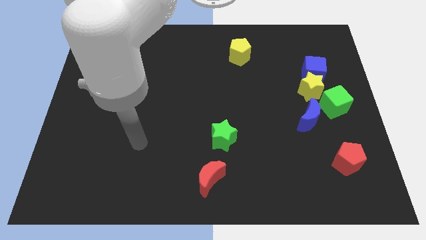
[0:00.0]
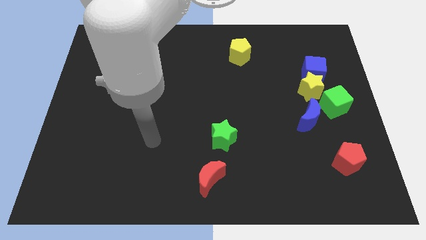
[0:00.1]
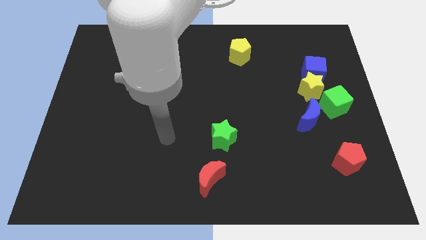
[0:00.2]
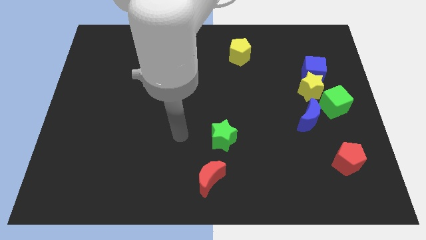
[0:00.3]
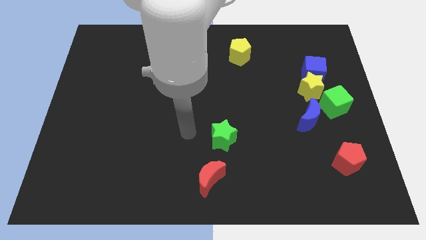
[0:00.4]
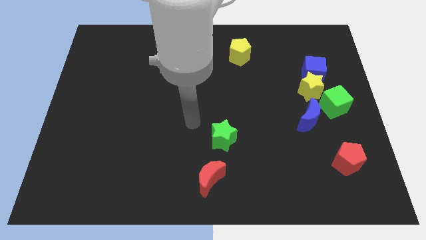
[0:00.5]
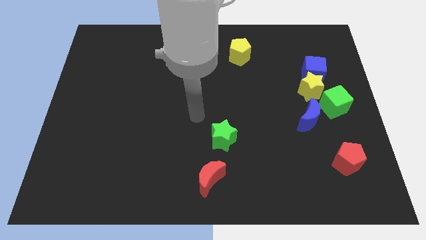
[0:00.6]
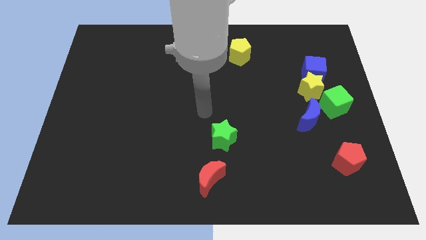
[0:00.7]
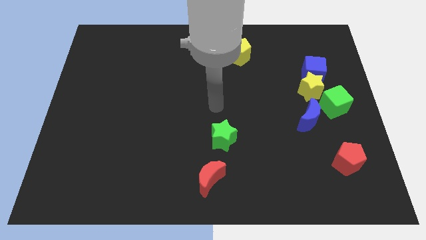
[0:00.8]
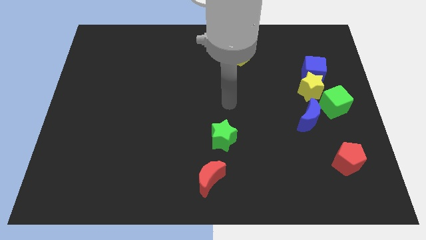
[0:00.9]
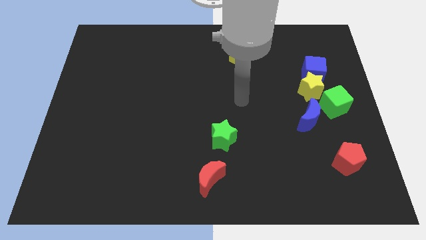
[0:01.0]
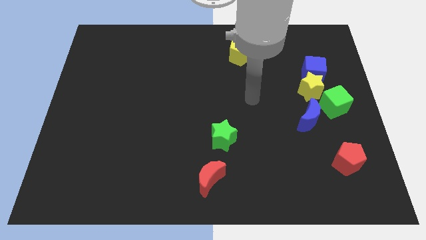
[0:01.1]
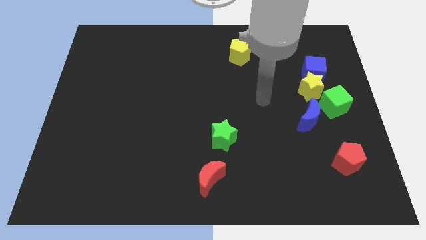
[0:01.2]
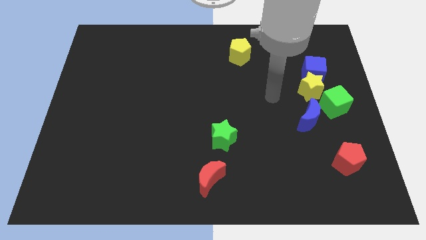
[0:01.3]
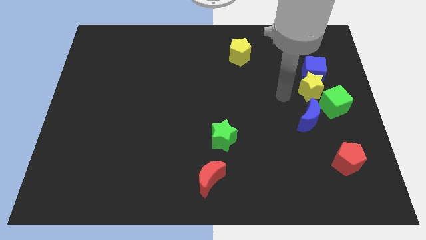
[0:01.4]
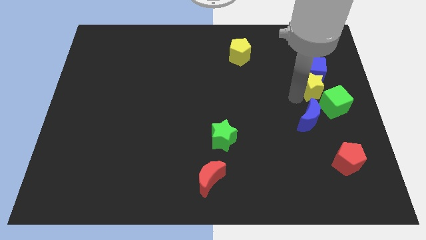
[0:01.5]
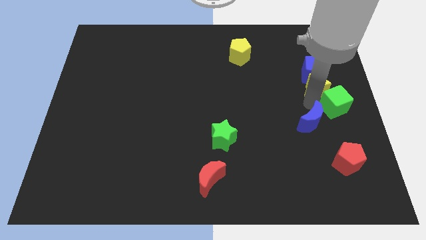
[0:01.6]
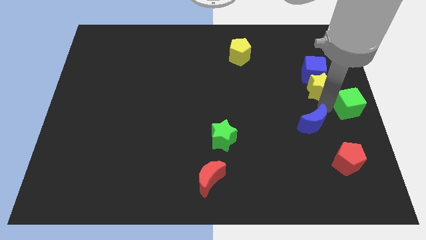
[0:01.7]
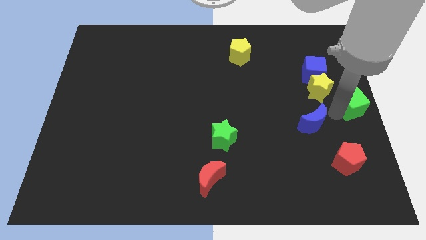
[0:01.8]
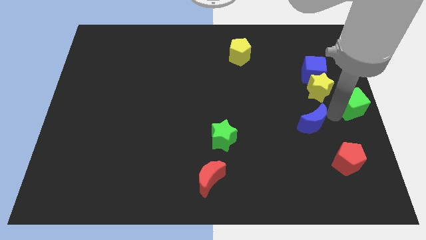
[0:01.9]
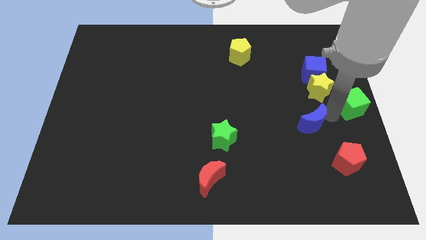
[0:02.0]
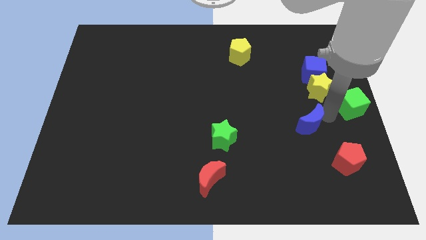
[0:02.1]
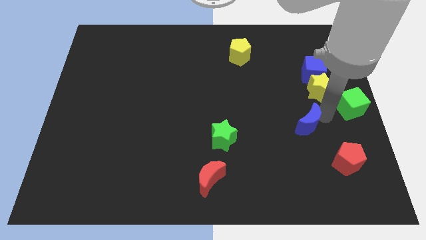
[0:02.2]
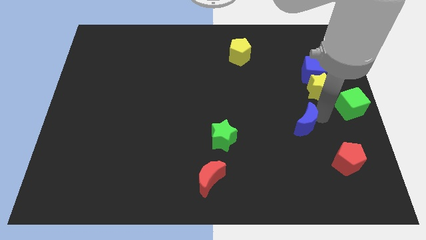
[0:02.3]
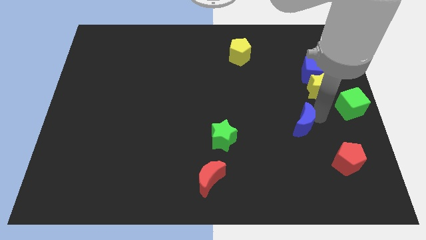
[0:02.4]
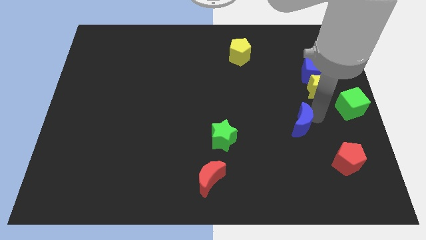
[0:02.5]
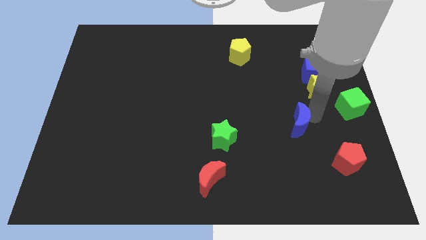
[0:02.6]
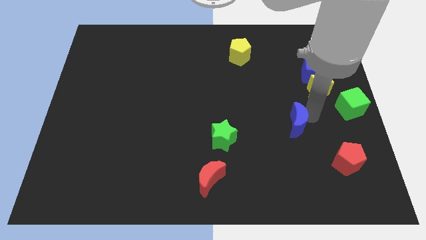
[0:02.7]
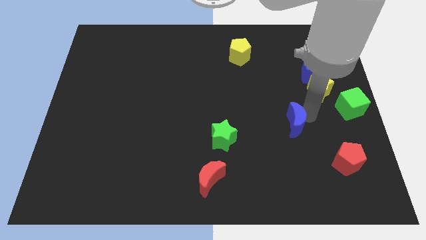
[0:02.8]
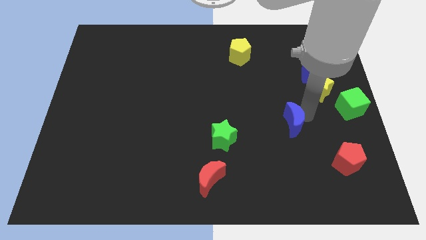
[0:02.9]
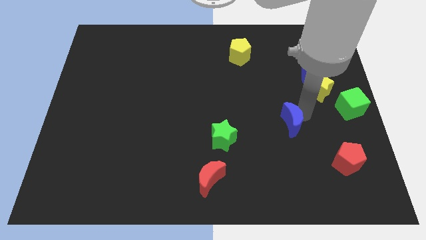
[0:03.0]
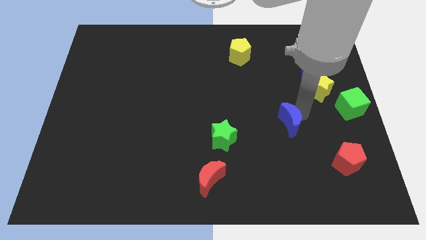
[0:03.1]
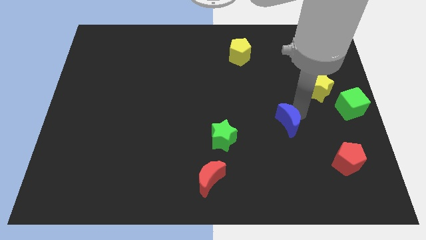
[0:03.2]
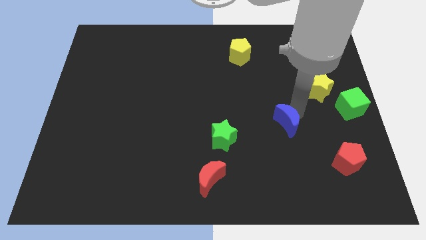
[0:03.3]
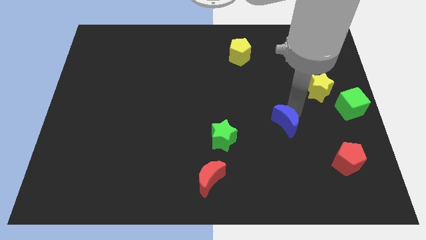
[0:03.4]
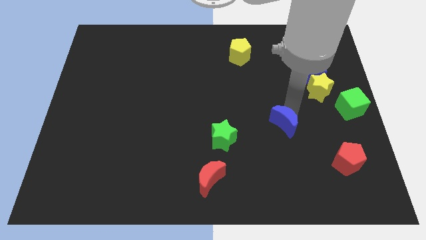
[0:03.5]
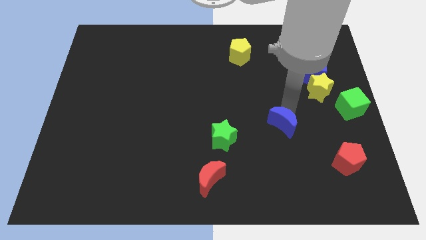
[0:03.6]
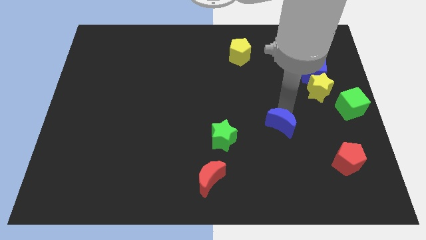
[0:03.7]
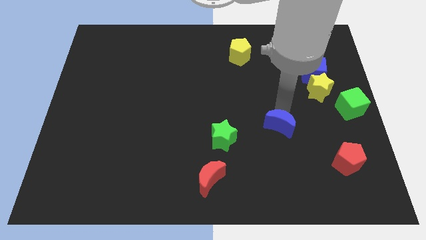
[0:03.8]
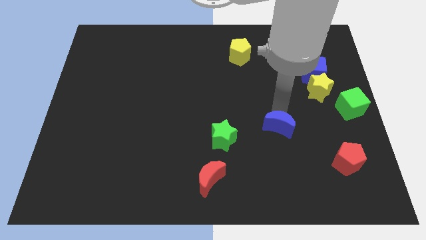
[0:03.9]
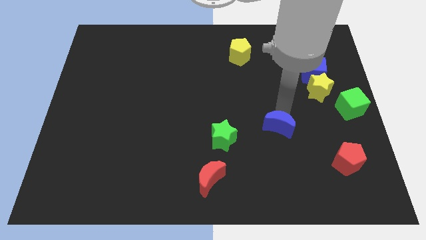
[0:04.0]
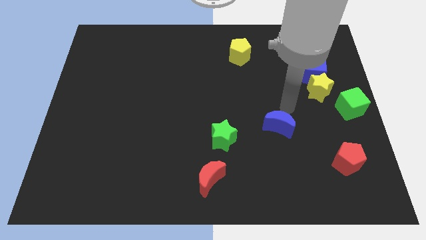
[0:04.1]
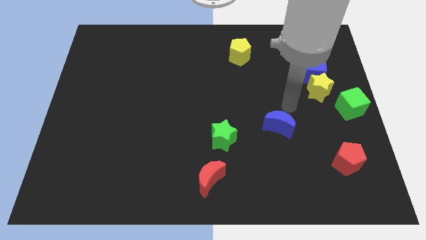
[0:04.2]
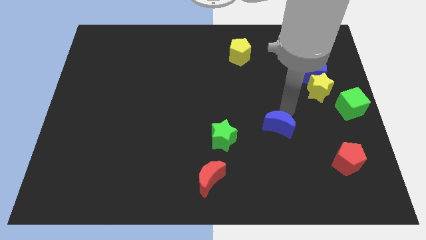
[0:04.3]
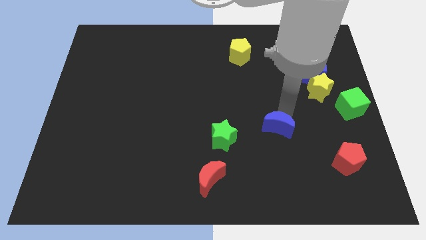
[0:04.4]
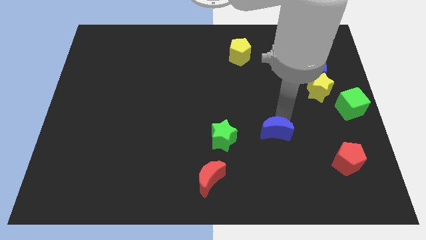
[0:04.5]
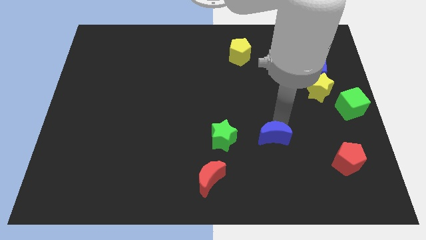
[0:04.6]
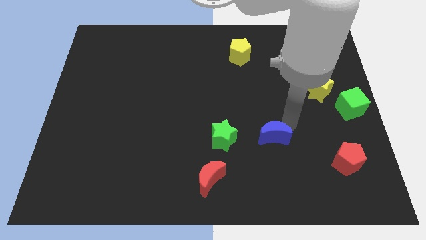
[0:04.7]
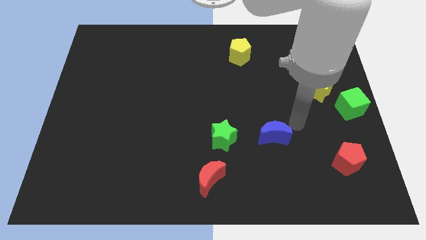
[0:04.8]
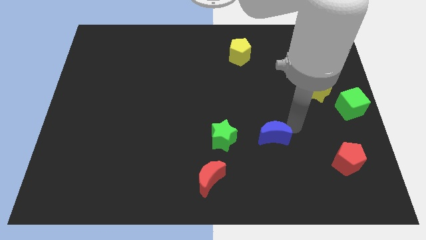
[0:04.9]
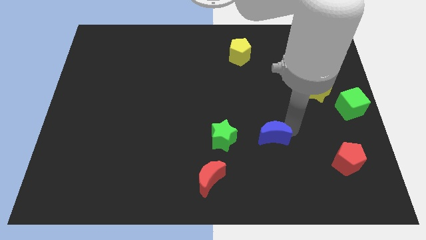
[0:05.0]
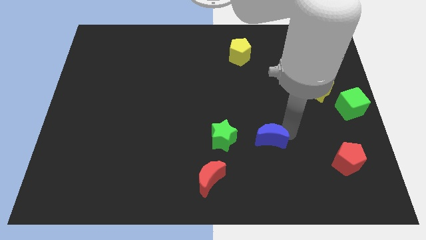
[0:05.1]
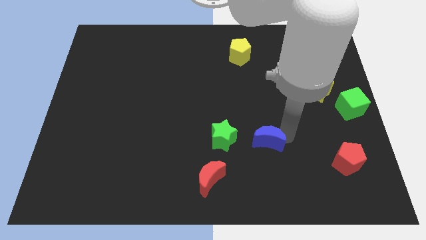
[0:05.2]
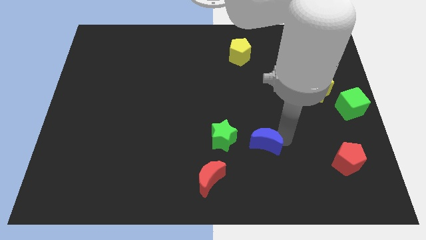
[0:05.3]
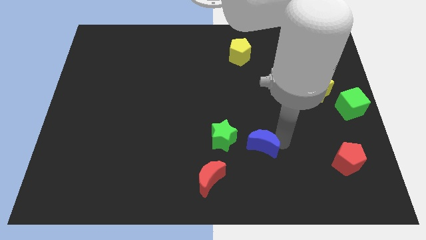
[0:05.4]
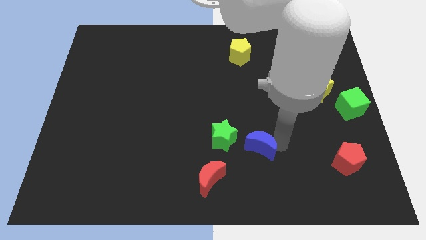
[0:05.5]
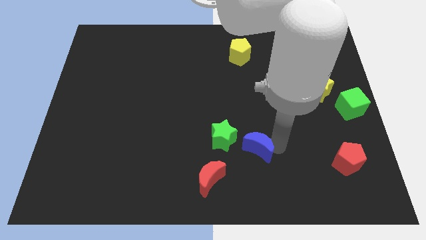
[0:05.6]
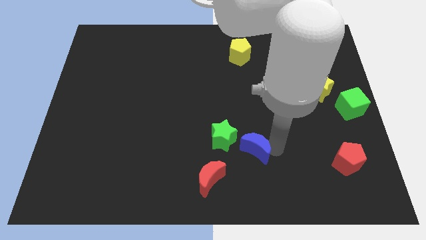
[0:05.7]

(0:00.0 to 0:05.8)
move the blue moon to the top right of the red moon

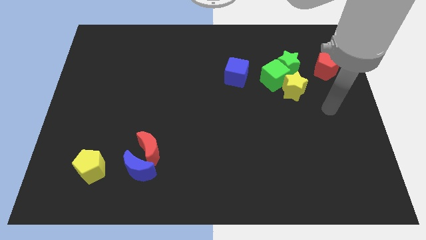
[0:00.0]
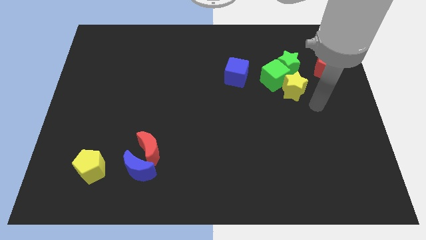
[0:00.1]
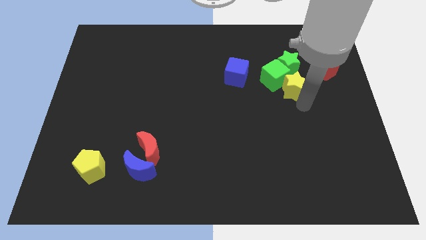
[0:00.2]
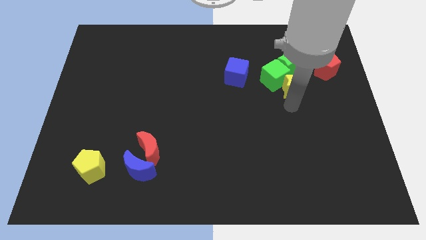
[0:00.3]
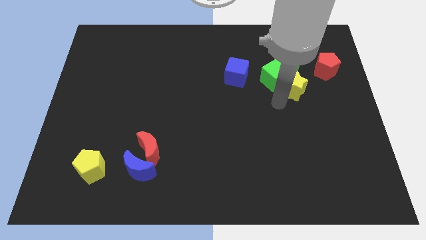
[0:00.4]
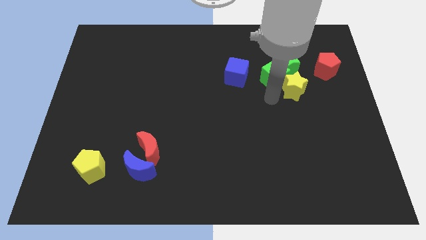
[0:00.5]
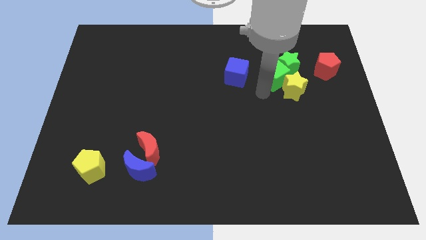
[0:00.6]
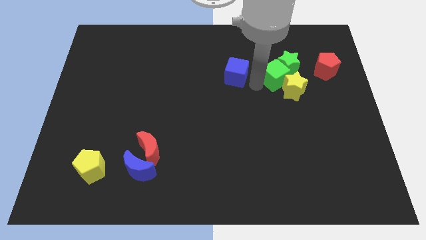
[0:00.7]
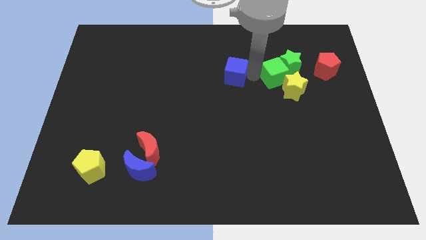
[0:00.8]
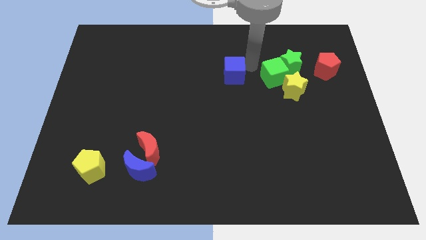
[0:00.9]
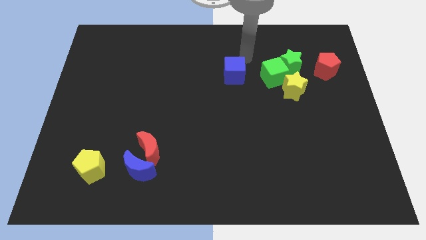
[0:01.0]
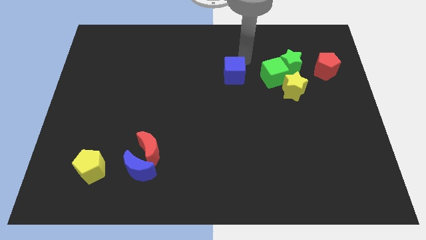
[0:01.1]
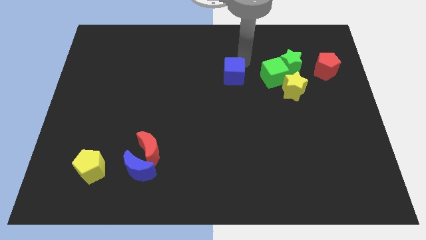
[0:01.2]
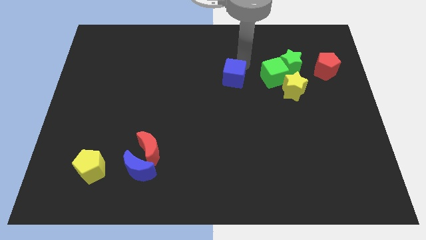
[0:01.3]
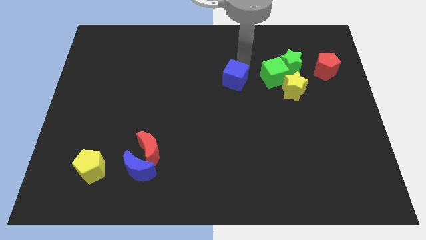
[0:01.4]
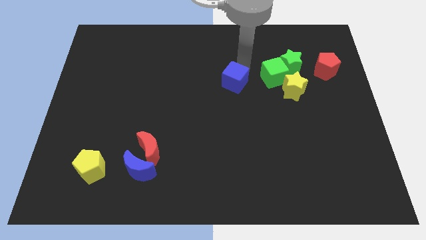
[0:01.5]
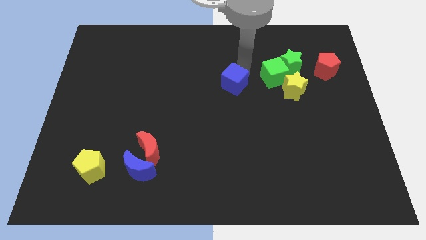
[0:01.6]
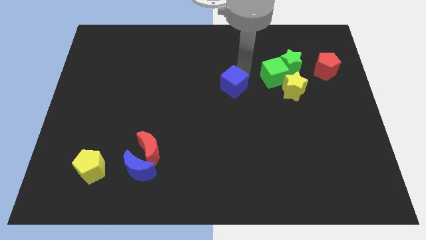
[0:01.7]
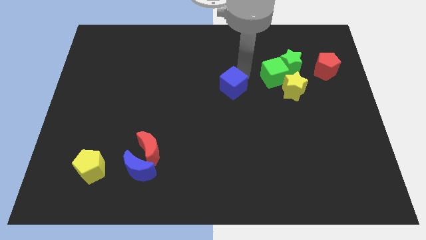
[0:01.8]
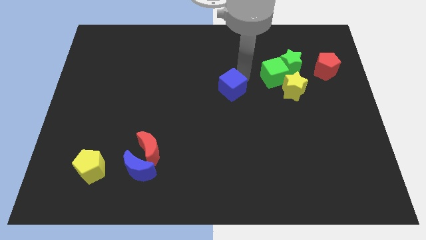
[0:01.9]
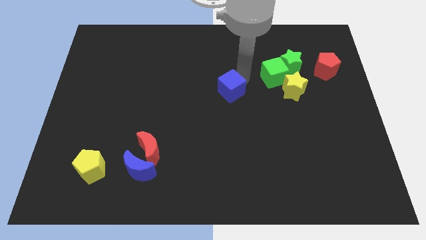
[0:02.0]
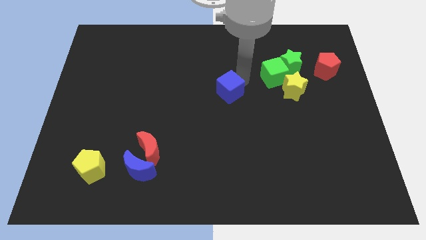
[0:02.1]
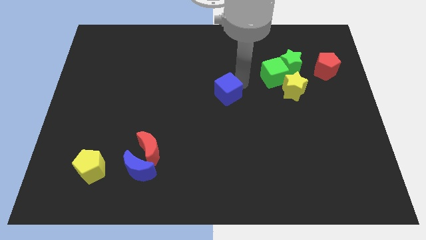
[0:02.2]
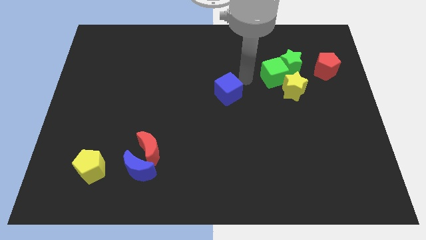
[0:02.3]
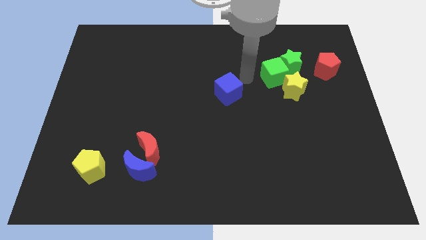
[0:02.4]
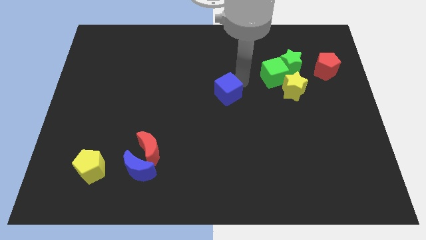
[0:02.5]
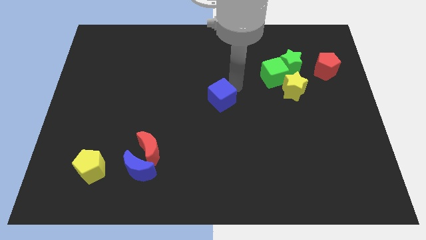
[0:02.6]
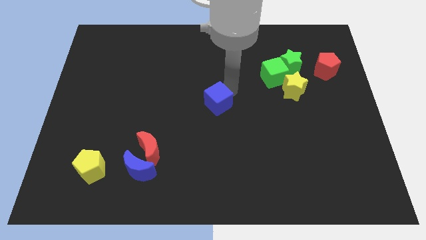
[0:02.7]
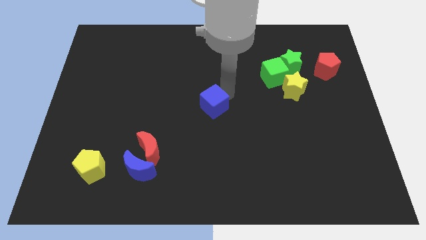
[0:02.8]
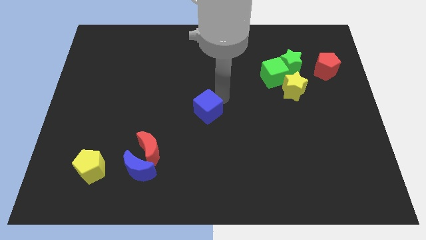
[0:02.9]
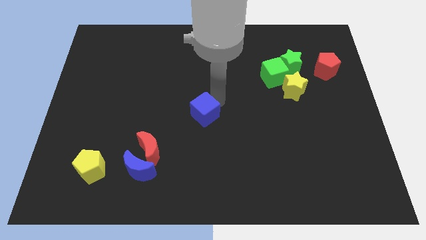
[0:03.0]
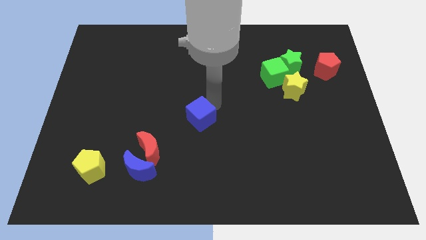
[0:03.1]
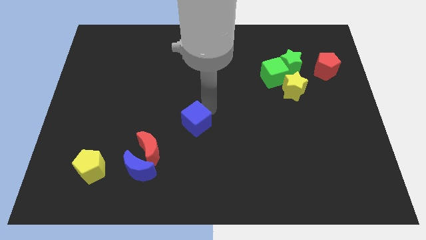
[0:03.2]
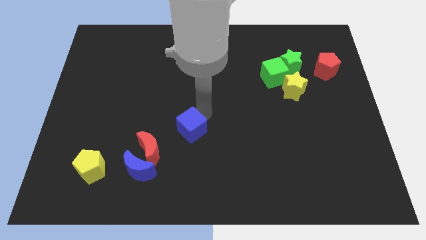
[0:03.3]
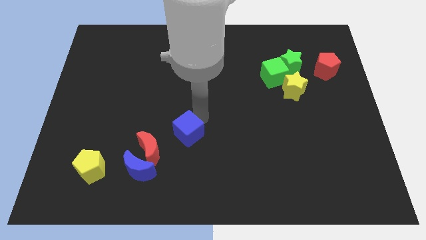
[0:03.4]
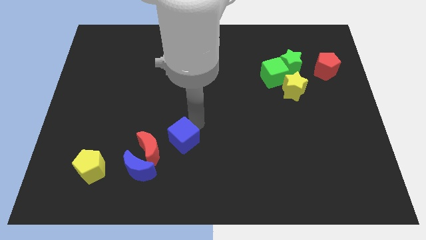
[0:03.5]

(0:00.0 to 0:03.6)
push the blue cube diagonally up and to the right of the blue moon
